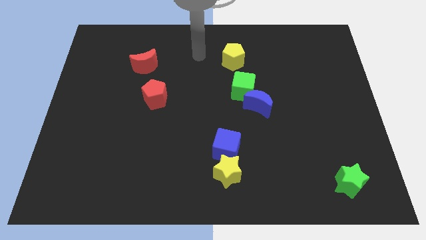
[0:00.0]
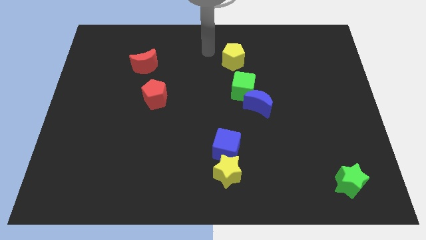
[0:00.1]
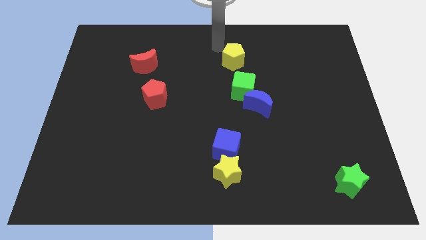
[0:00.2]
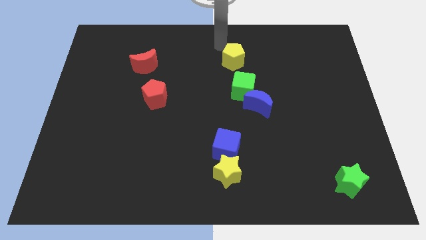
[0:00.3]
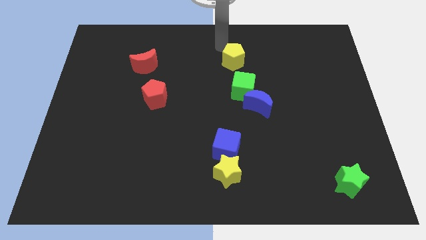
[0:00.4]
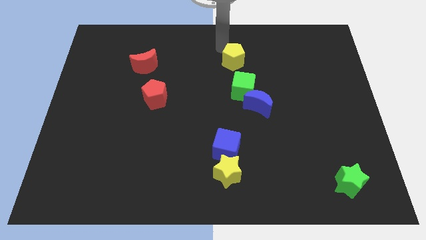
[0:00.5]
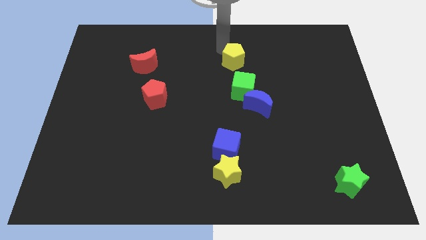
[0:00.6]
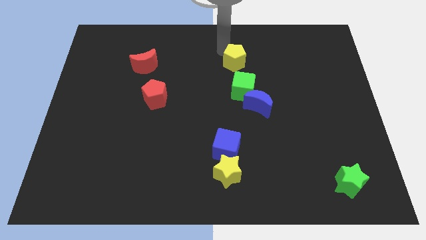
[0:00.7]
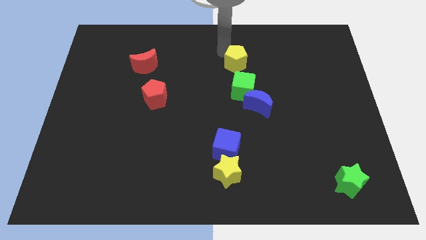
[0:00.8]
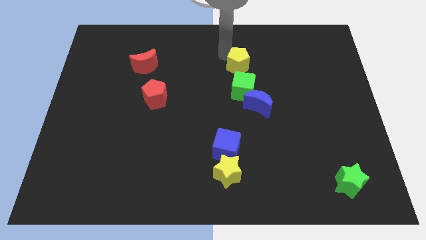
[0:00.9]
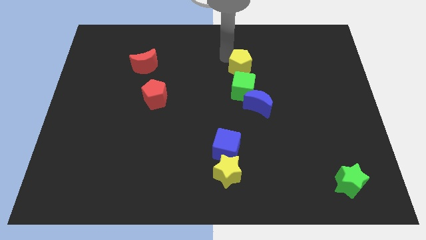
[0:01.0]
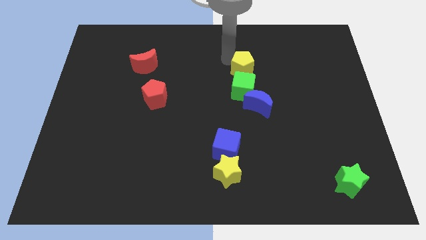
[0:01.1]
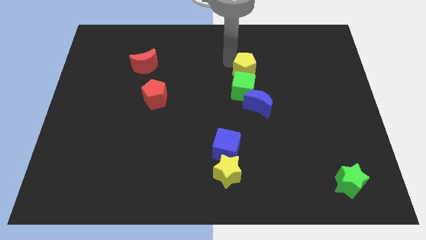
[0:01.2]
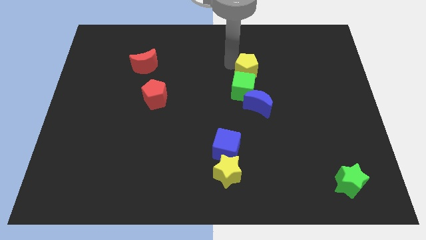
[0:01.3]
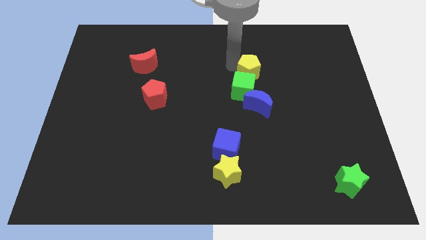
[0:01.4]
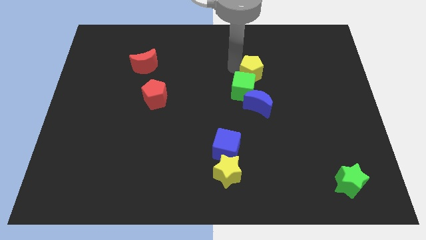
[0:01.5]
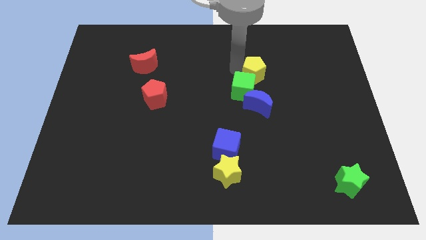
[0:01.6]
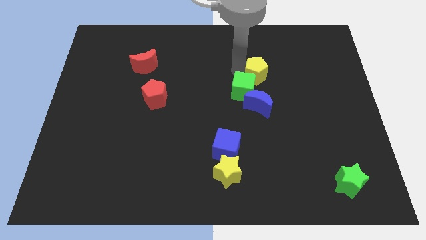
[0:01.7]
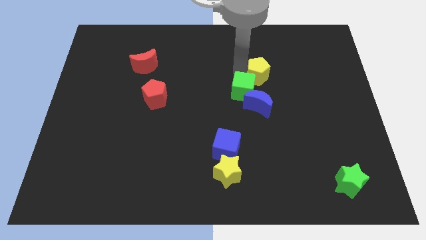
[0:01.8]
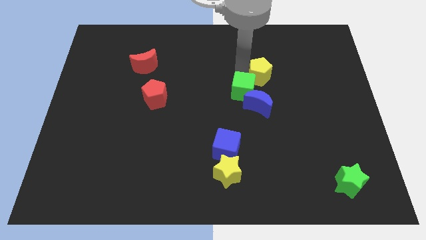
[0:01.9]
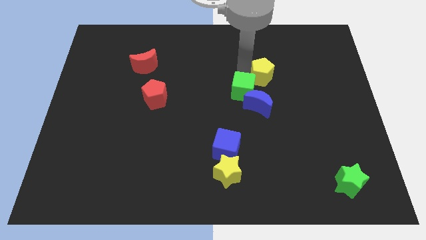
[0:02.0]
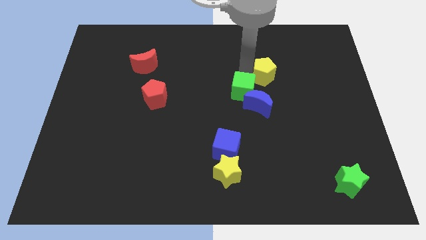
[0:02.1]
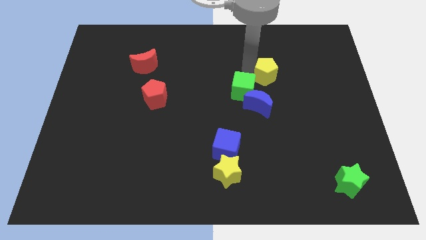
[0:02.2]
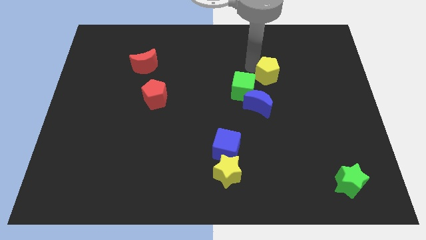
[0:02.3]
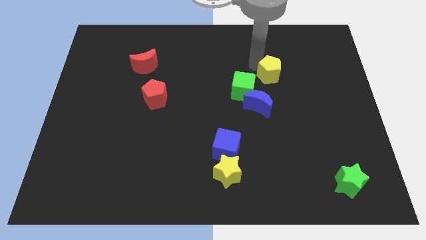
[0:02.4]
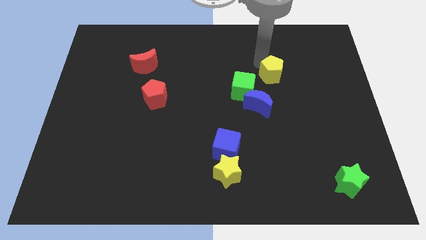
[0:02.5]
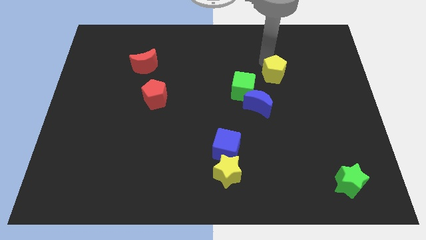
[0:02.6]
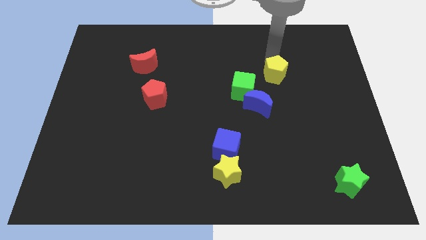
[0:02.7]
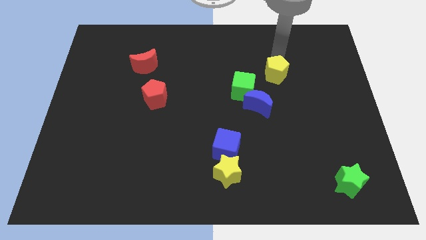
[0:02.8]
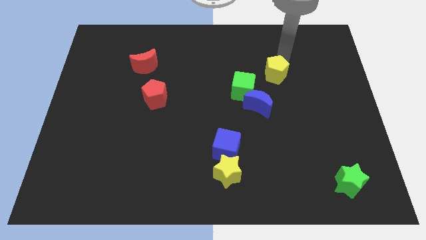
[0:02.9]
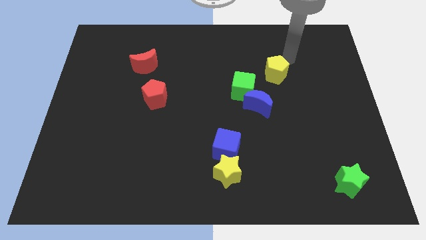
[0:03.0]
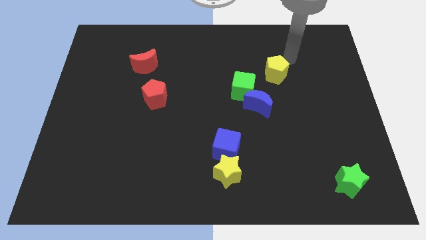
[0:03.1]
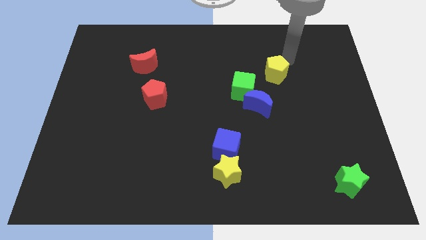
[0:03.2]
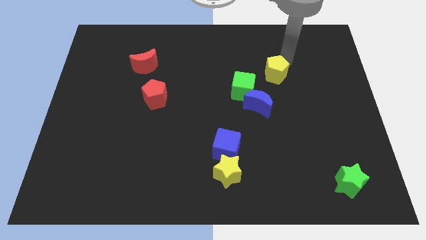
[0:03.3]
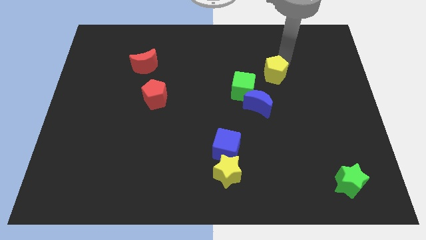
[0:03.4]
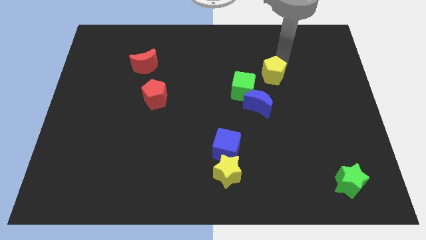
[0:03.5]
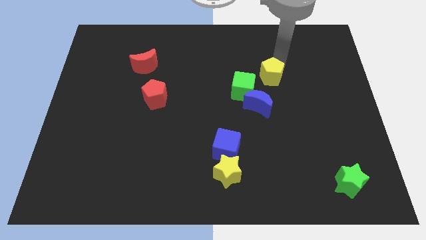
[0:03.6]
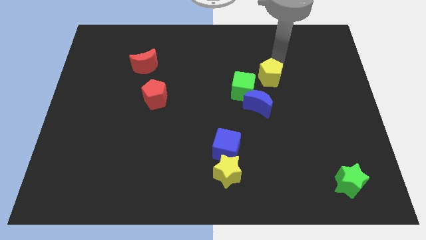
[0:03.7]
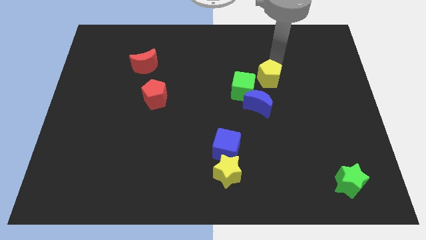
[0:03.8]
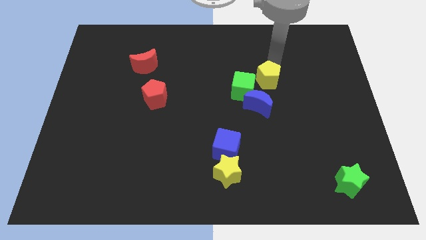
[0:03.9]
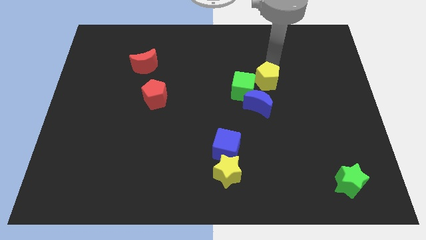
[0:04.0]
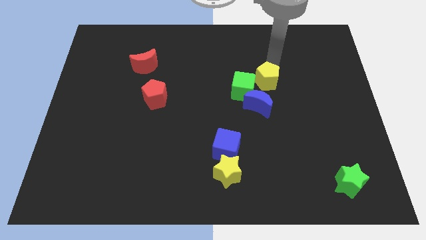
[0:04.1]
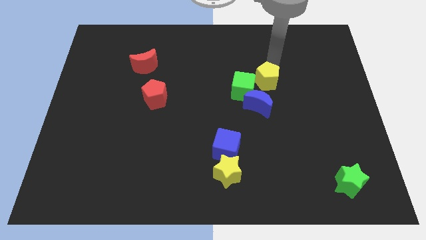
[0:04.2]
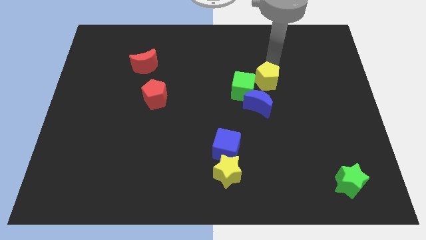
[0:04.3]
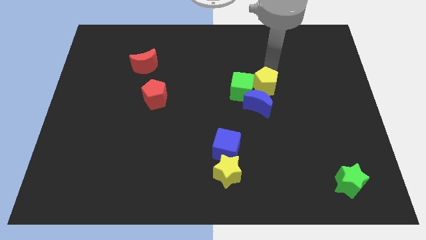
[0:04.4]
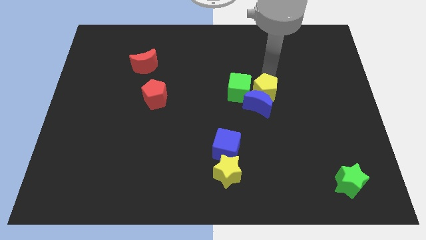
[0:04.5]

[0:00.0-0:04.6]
move the yellow pentagon next to the blue moon

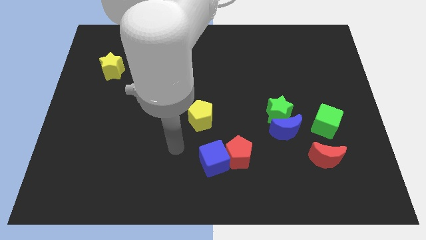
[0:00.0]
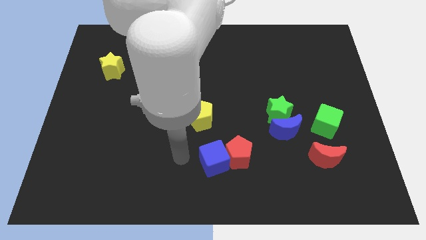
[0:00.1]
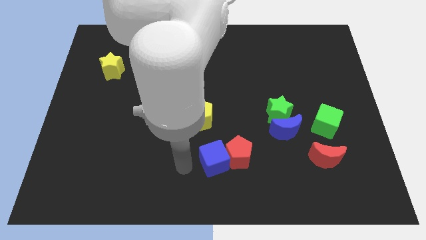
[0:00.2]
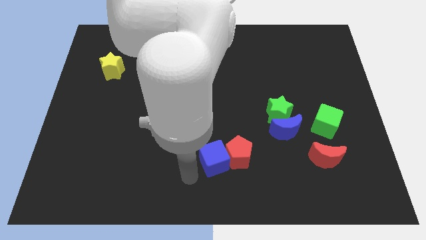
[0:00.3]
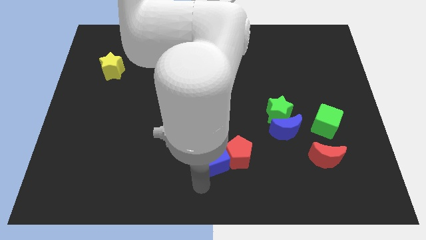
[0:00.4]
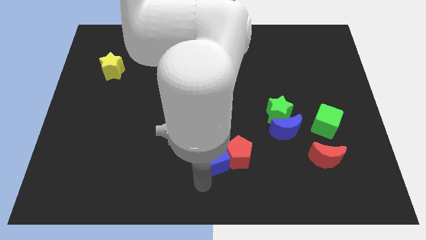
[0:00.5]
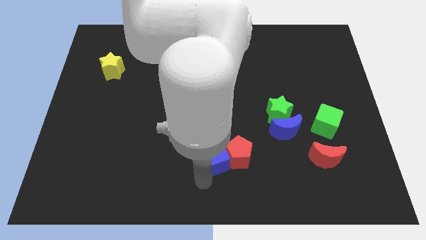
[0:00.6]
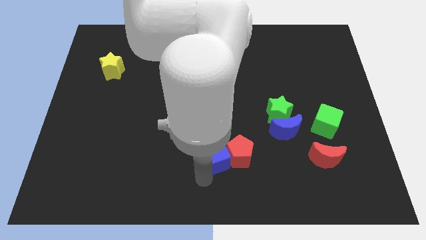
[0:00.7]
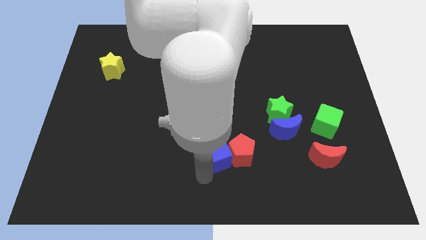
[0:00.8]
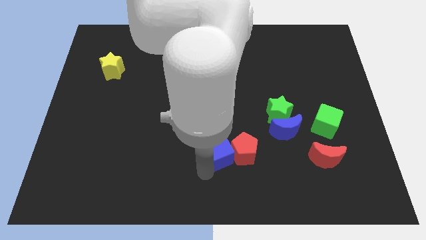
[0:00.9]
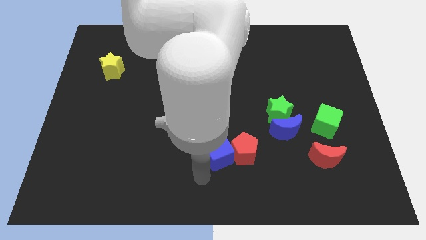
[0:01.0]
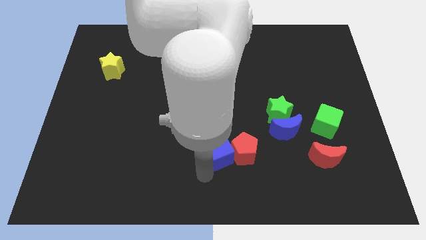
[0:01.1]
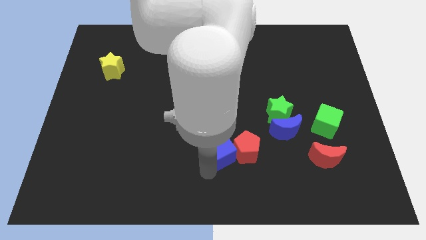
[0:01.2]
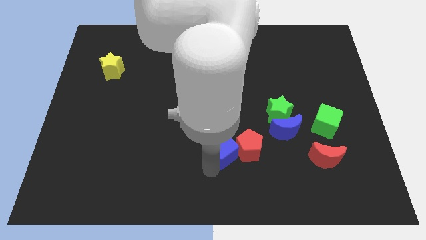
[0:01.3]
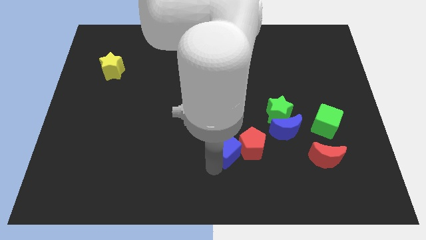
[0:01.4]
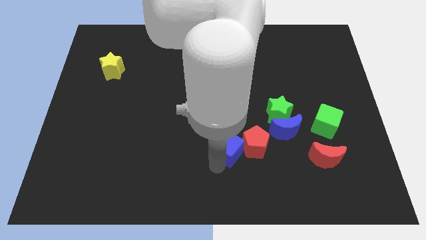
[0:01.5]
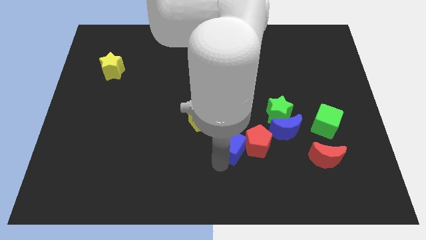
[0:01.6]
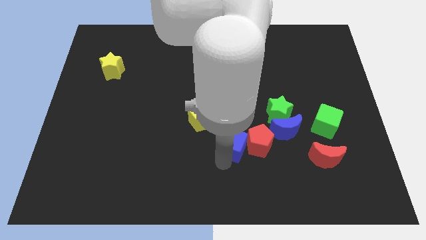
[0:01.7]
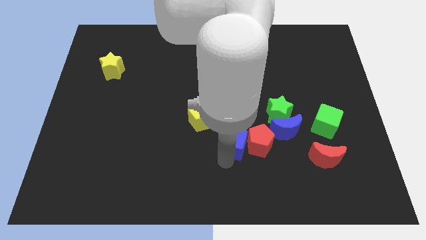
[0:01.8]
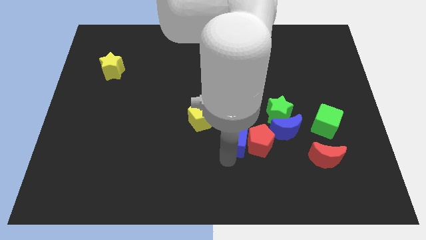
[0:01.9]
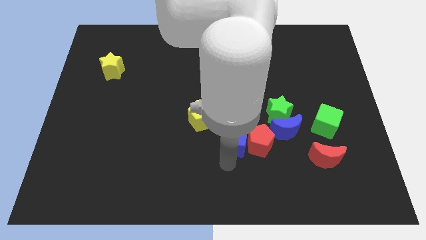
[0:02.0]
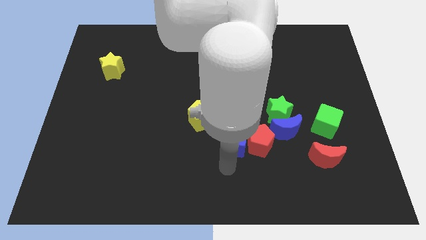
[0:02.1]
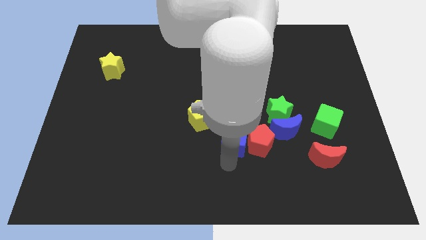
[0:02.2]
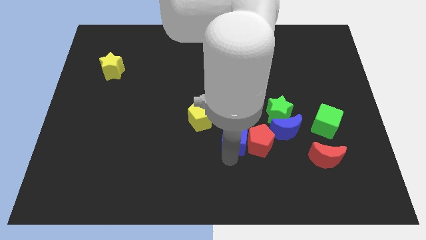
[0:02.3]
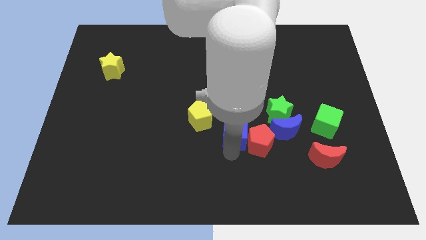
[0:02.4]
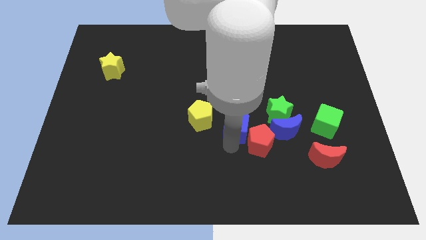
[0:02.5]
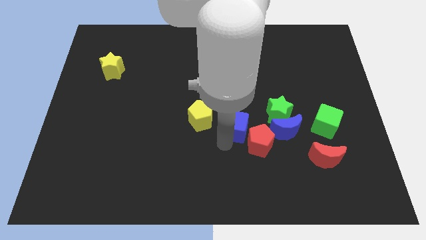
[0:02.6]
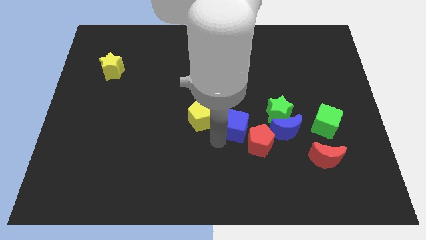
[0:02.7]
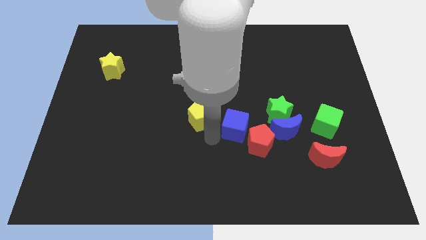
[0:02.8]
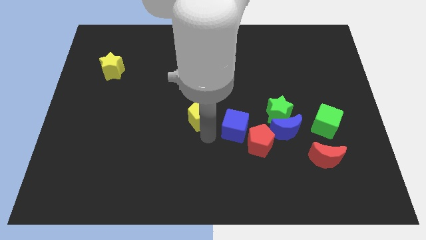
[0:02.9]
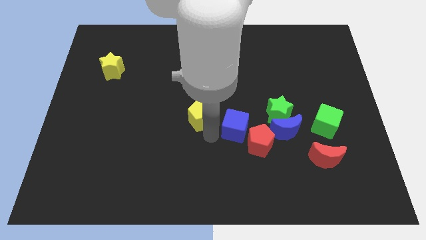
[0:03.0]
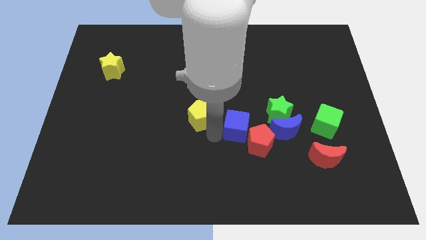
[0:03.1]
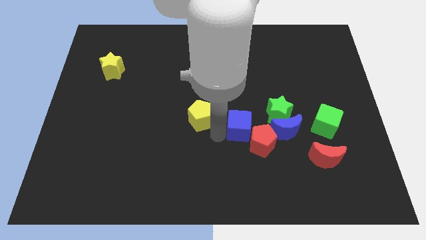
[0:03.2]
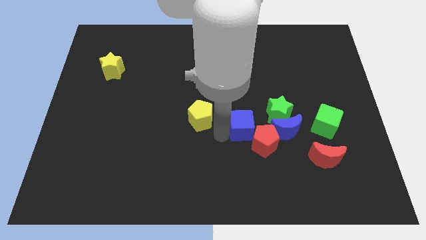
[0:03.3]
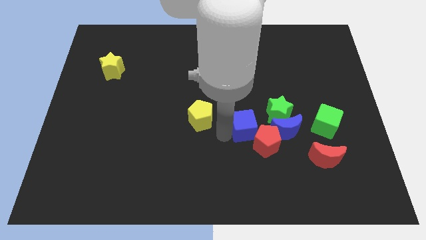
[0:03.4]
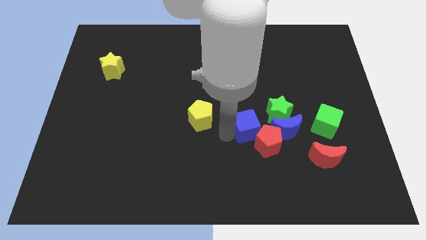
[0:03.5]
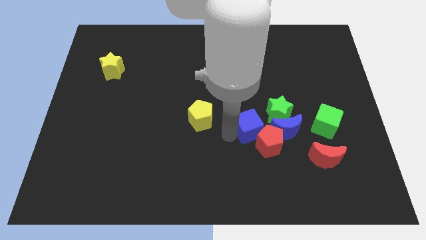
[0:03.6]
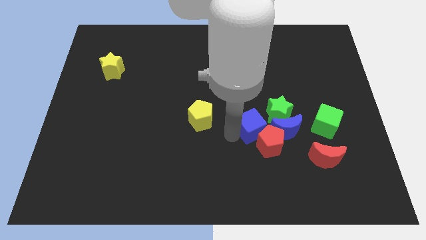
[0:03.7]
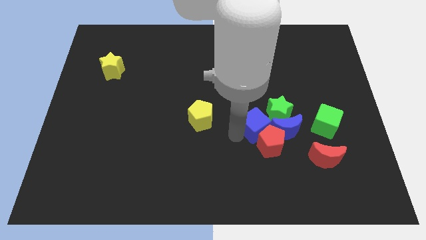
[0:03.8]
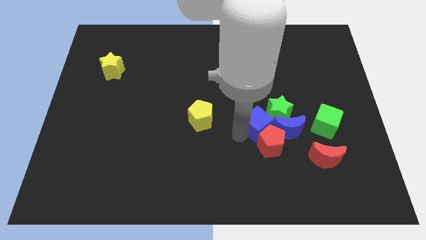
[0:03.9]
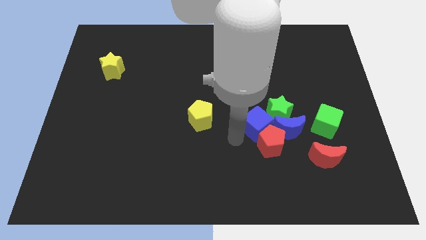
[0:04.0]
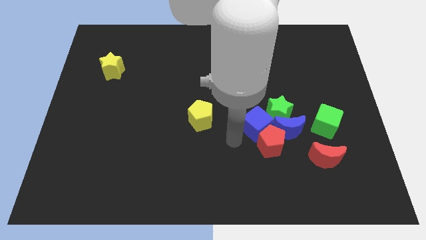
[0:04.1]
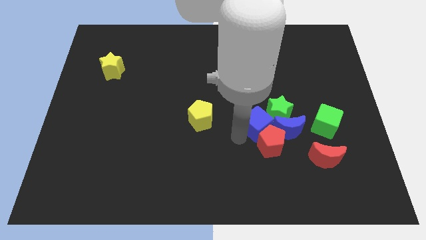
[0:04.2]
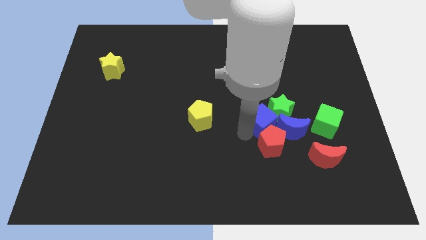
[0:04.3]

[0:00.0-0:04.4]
move the blue cube towards the green star
